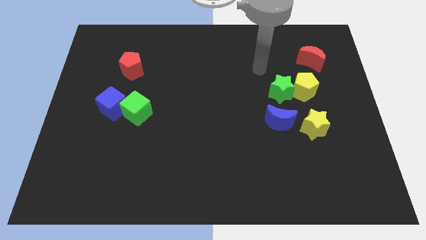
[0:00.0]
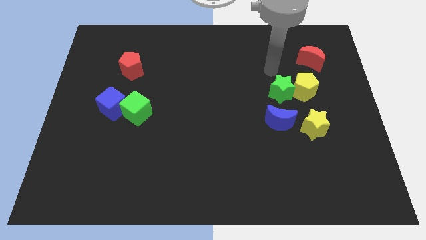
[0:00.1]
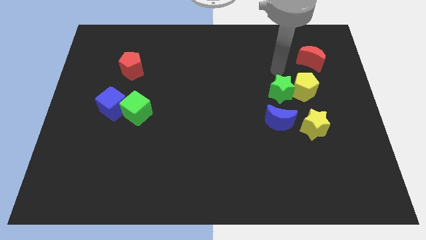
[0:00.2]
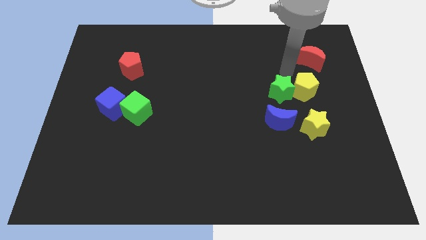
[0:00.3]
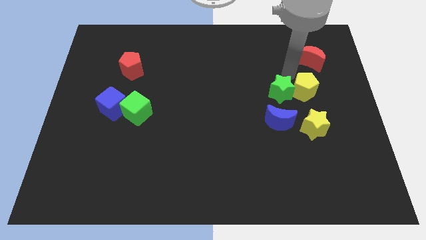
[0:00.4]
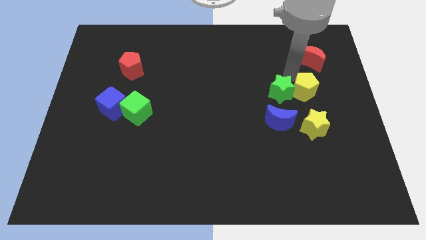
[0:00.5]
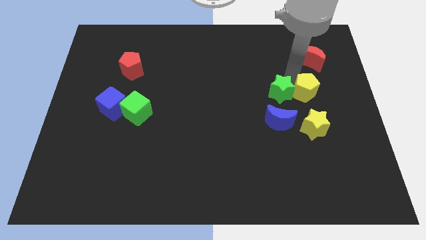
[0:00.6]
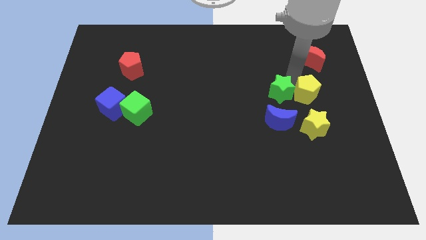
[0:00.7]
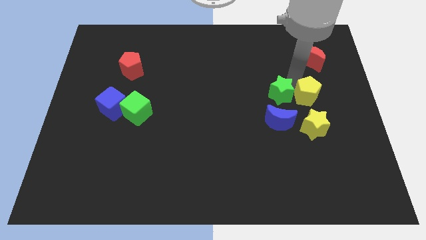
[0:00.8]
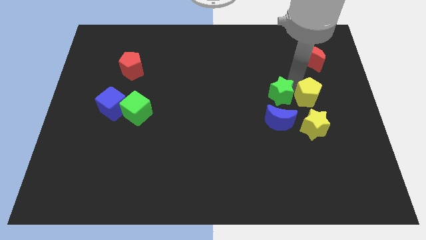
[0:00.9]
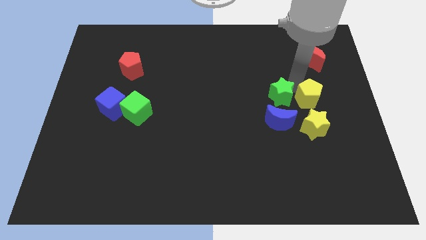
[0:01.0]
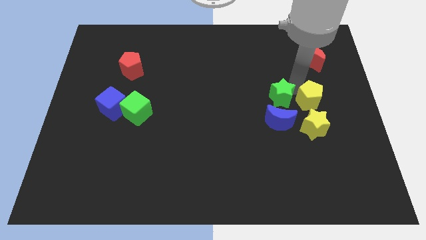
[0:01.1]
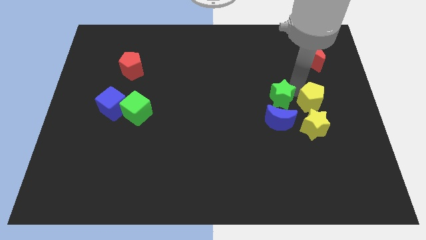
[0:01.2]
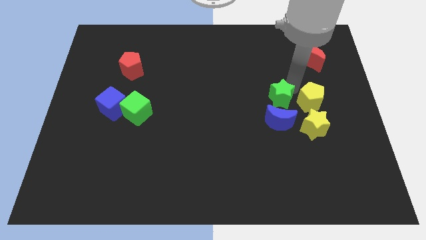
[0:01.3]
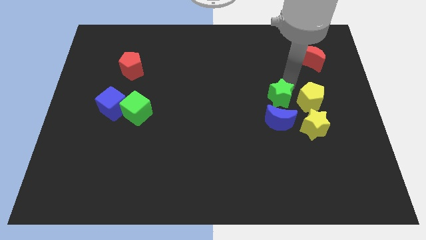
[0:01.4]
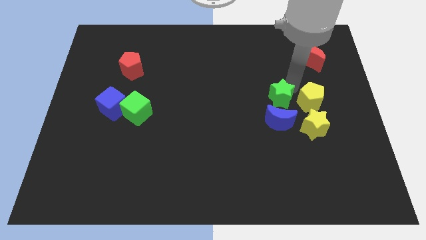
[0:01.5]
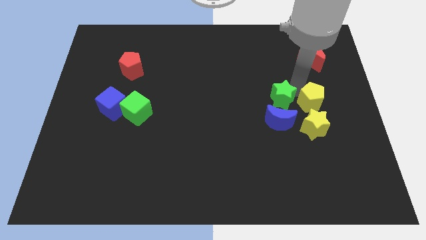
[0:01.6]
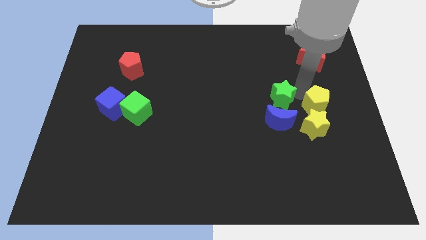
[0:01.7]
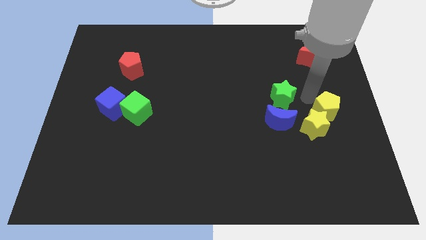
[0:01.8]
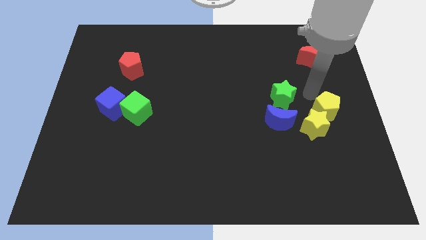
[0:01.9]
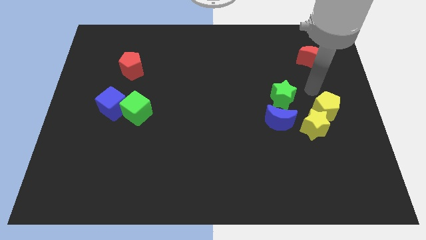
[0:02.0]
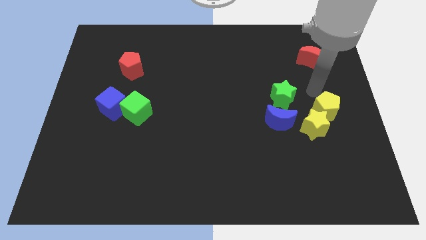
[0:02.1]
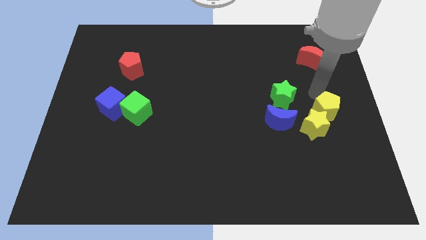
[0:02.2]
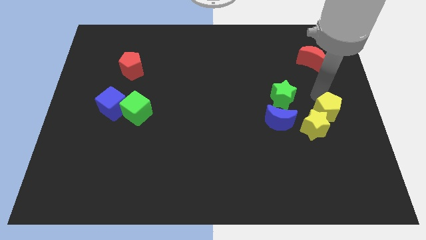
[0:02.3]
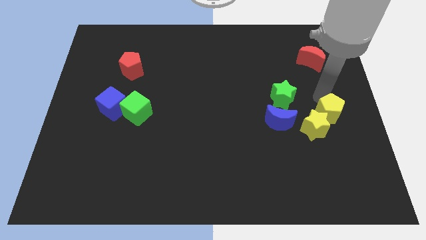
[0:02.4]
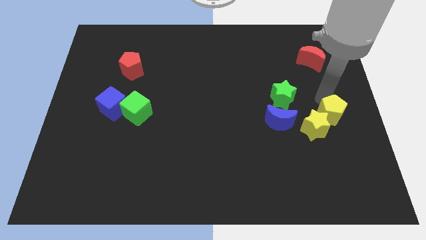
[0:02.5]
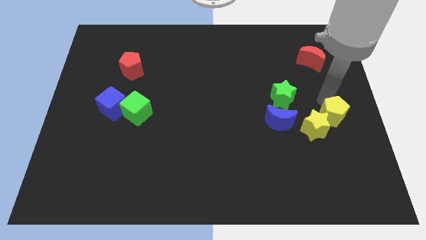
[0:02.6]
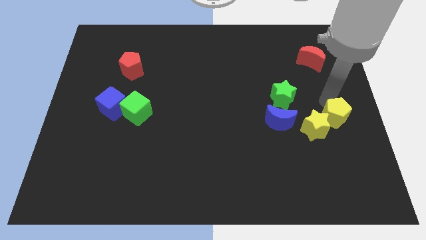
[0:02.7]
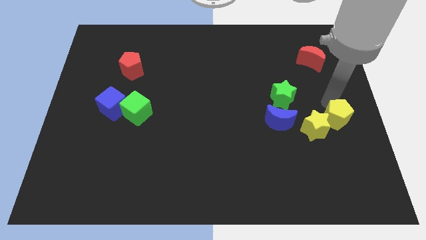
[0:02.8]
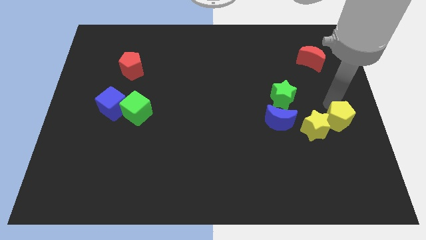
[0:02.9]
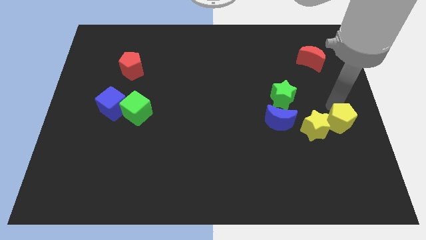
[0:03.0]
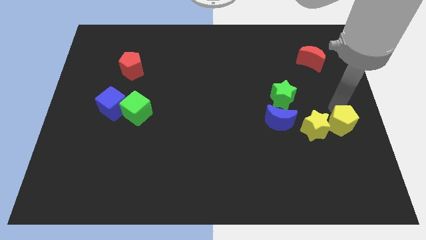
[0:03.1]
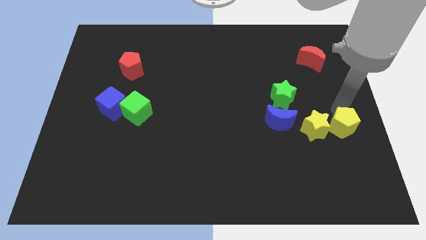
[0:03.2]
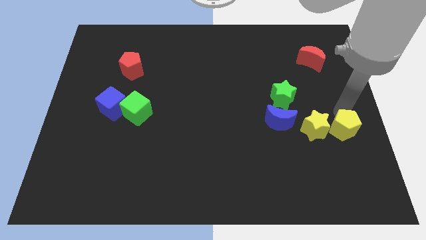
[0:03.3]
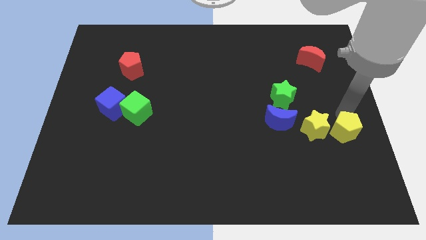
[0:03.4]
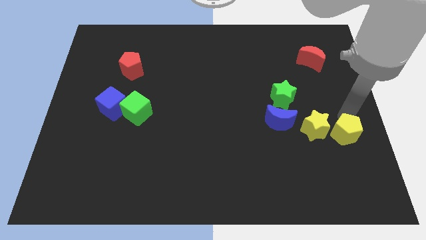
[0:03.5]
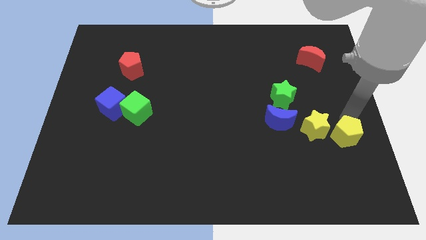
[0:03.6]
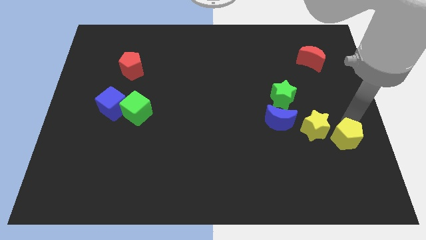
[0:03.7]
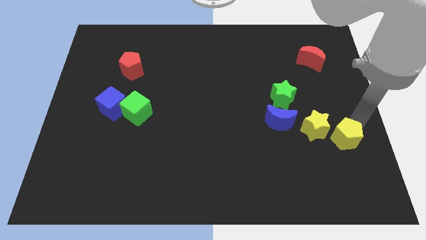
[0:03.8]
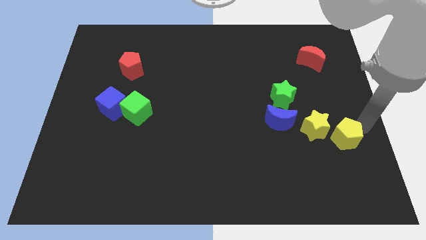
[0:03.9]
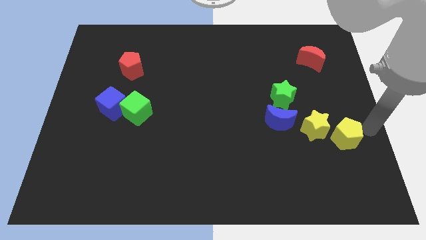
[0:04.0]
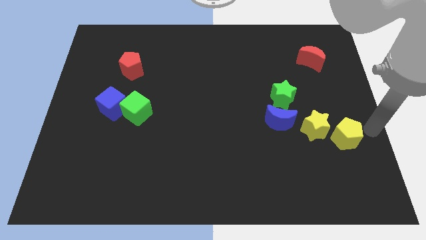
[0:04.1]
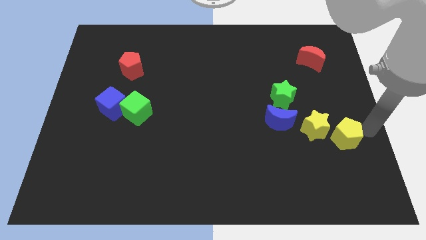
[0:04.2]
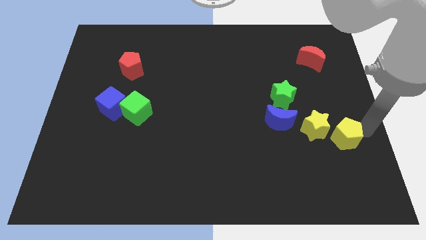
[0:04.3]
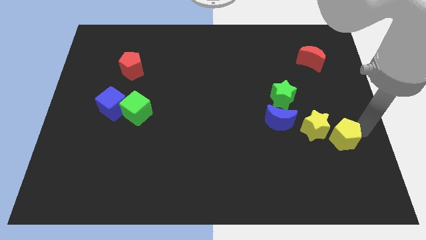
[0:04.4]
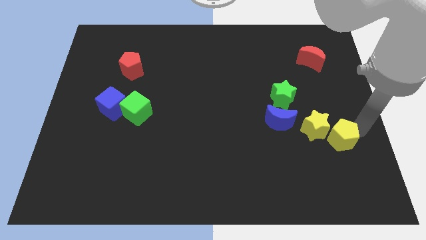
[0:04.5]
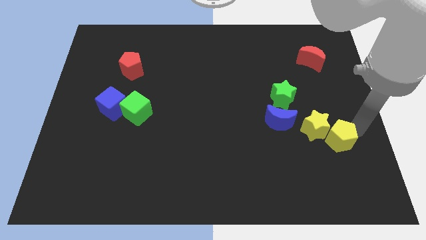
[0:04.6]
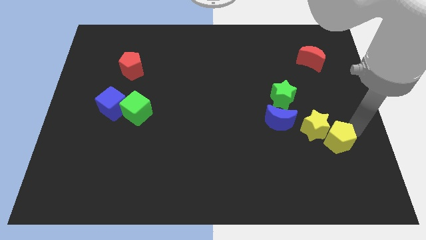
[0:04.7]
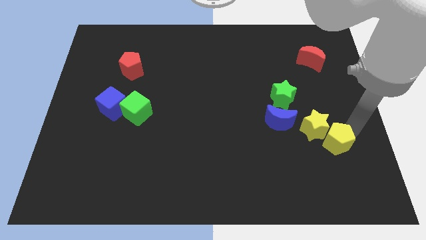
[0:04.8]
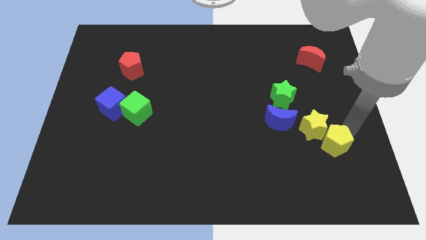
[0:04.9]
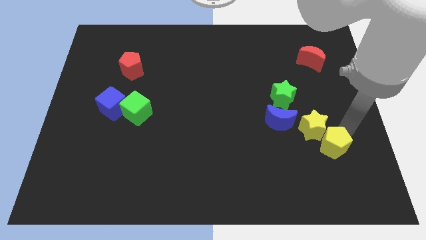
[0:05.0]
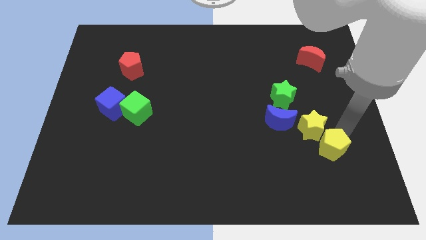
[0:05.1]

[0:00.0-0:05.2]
move the yellow pentagon diagonally down and to the right of the blue moon

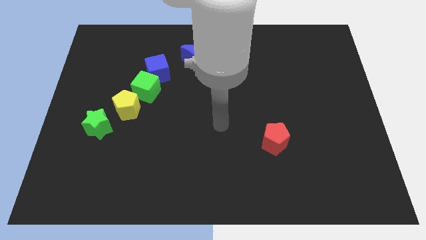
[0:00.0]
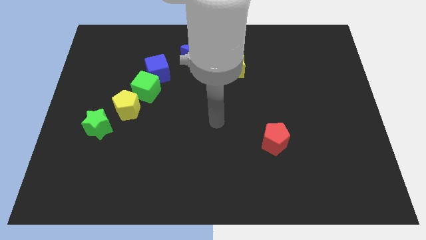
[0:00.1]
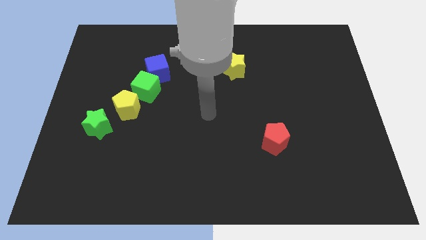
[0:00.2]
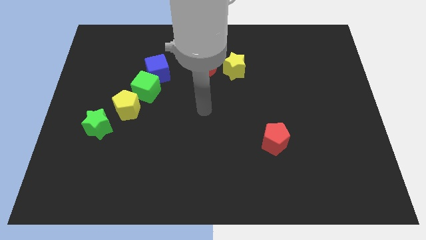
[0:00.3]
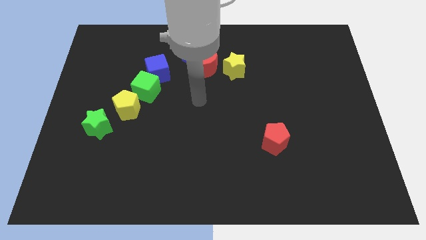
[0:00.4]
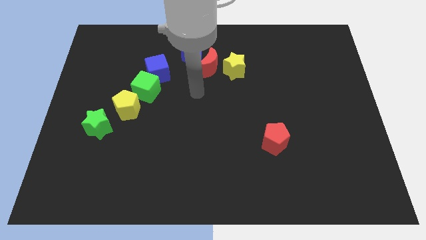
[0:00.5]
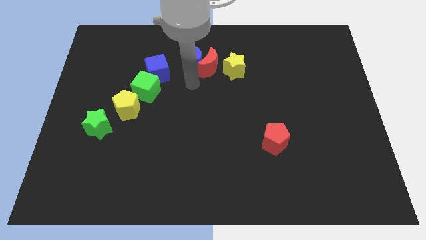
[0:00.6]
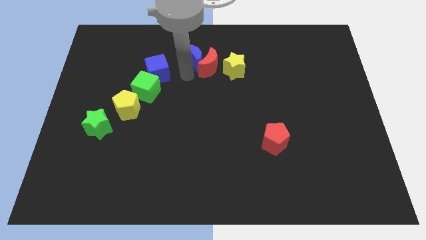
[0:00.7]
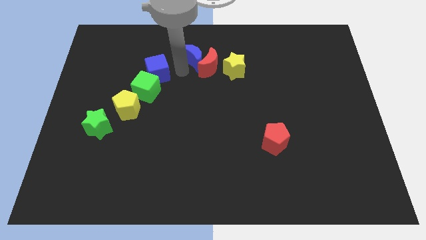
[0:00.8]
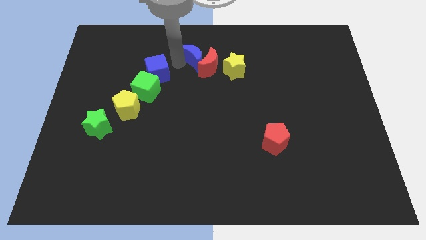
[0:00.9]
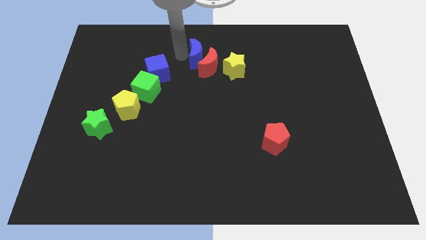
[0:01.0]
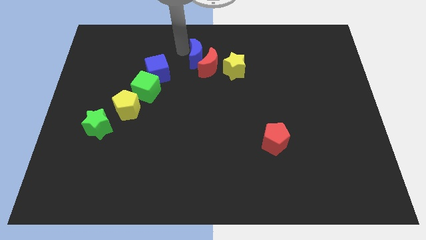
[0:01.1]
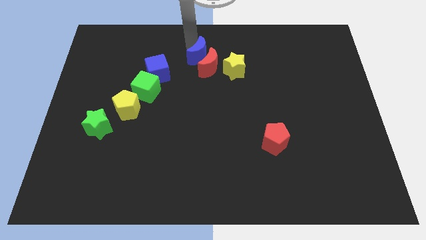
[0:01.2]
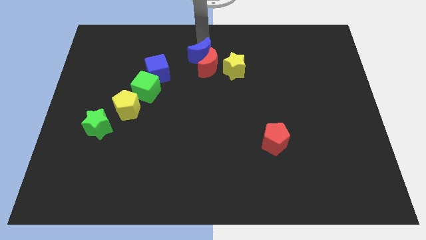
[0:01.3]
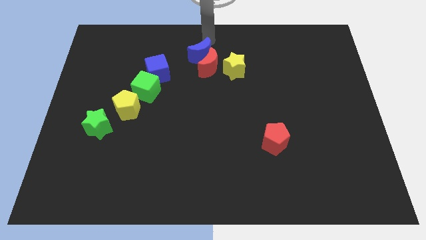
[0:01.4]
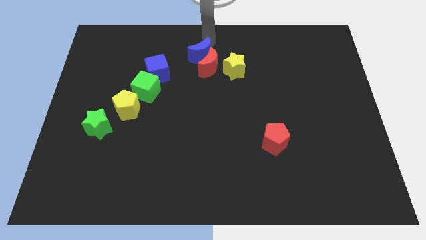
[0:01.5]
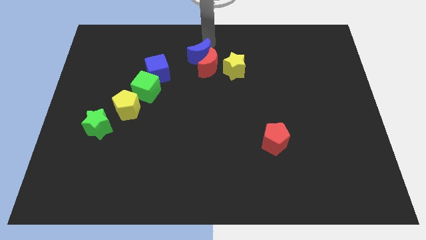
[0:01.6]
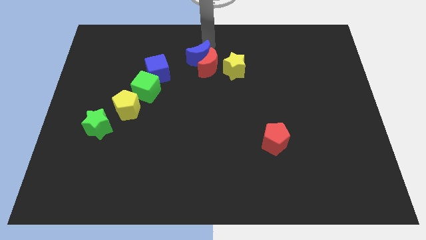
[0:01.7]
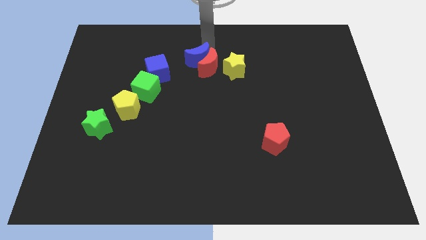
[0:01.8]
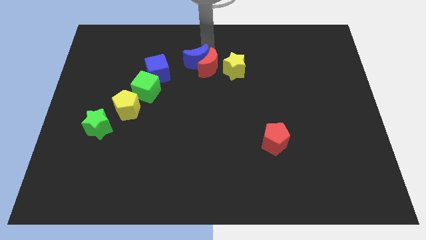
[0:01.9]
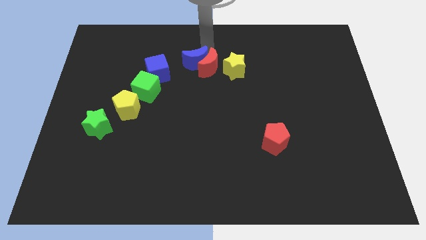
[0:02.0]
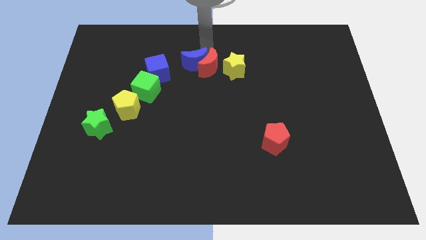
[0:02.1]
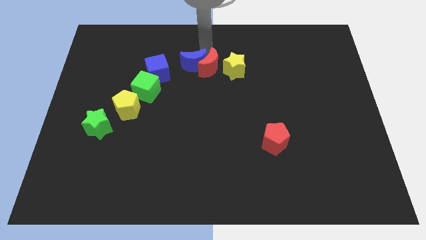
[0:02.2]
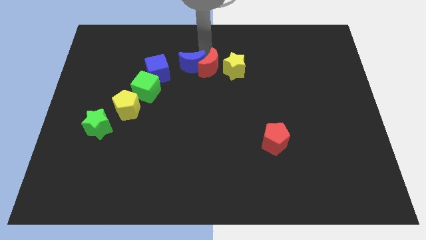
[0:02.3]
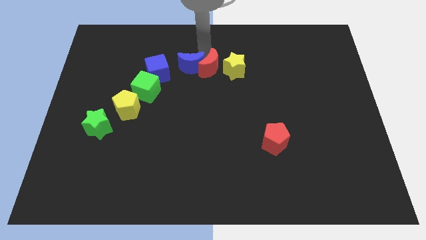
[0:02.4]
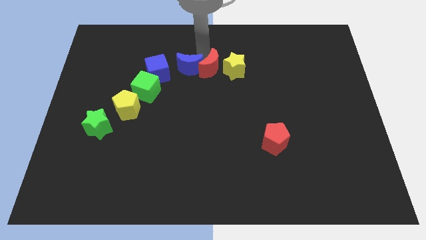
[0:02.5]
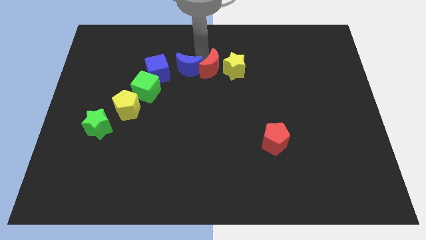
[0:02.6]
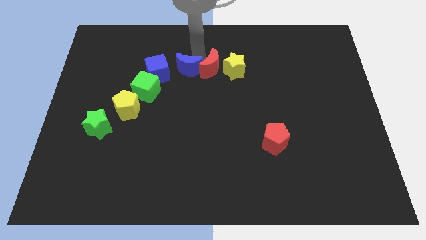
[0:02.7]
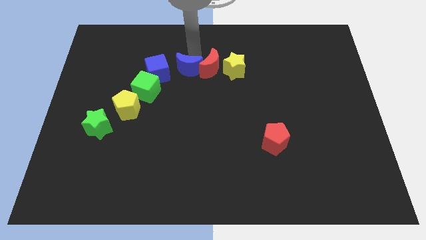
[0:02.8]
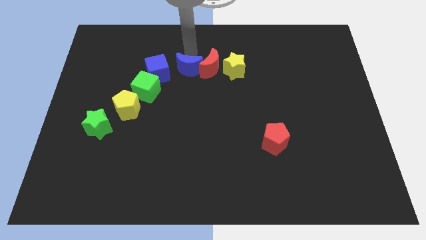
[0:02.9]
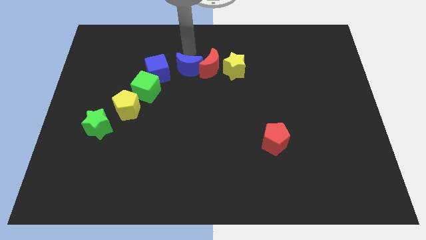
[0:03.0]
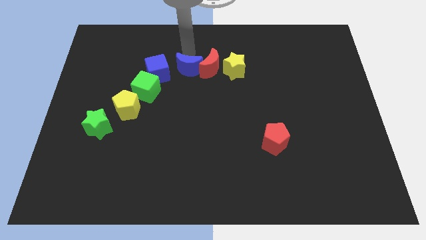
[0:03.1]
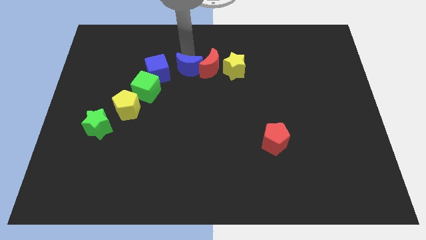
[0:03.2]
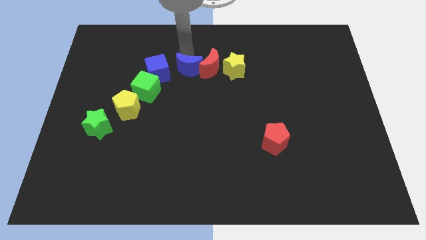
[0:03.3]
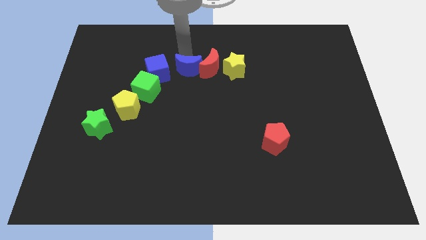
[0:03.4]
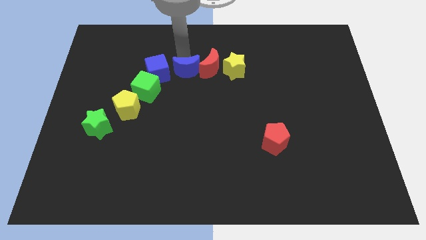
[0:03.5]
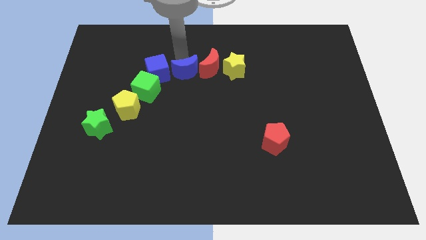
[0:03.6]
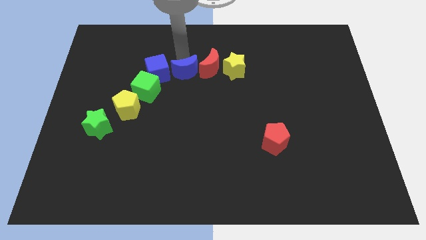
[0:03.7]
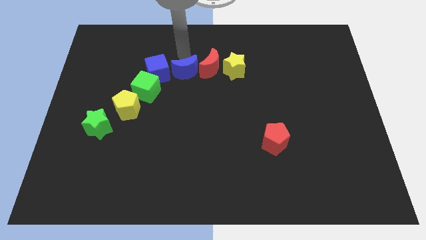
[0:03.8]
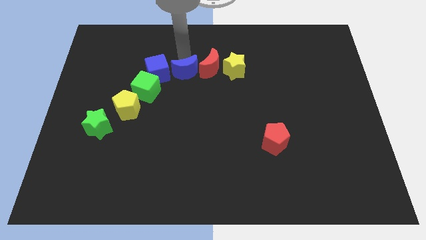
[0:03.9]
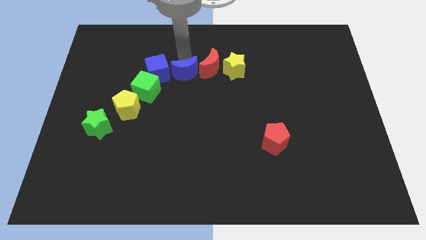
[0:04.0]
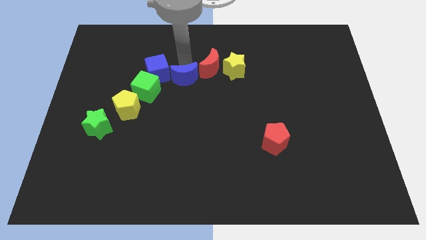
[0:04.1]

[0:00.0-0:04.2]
move the blue moon right of the green cube
